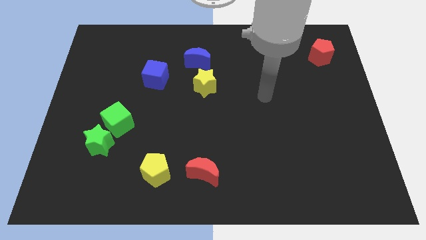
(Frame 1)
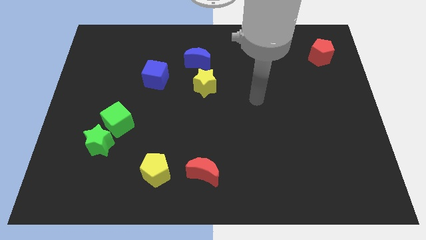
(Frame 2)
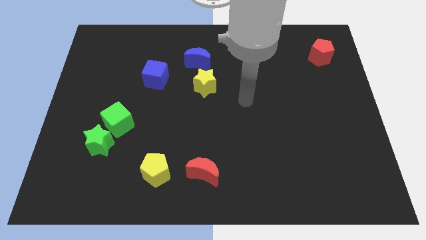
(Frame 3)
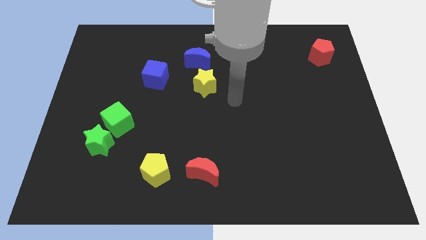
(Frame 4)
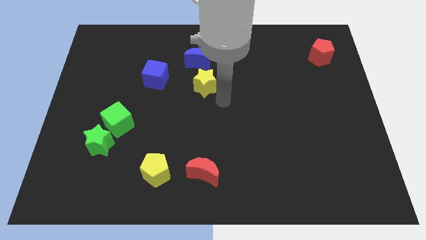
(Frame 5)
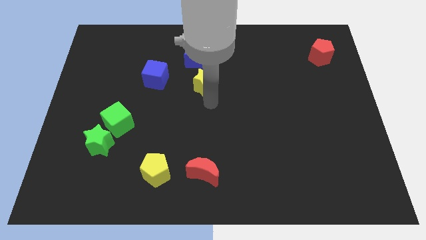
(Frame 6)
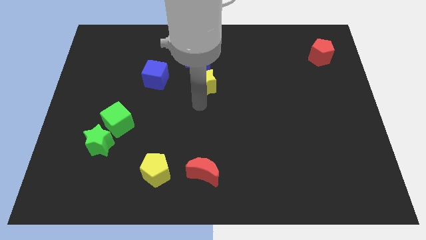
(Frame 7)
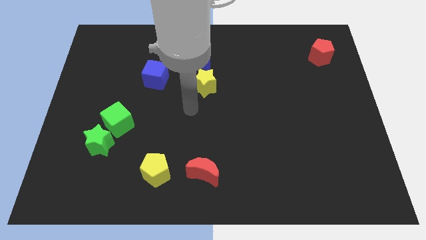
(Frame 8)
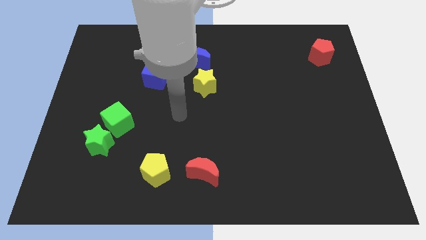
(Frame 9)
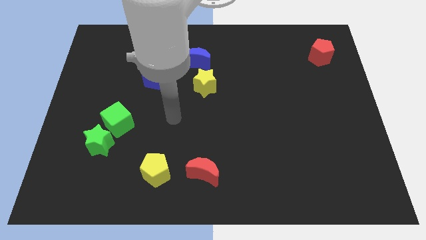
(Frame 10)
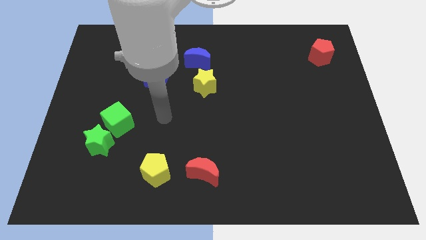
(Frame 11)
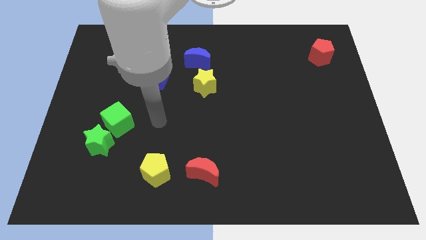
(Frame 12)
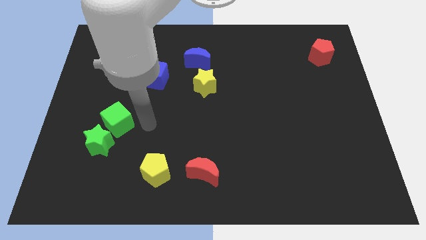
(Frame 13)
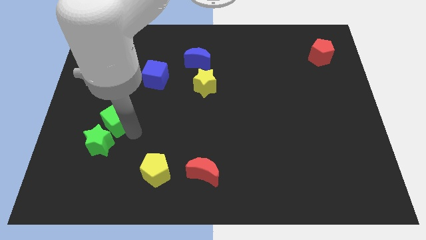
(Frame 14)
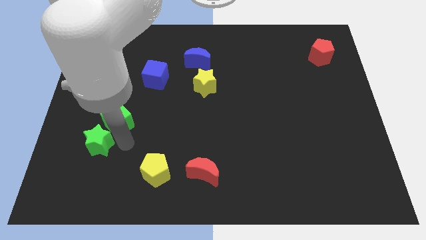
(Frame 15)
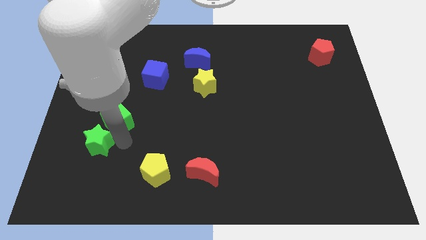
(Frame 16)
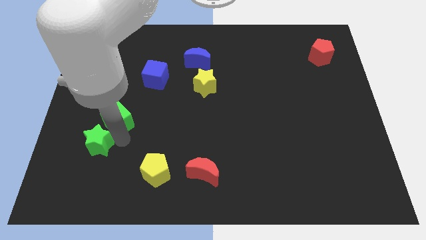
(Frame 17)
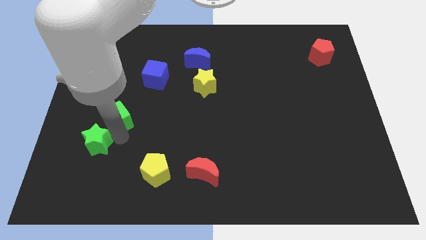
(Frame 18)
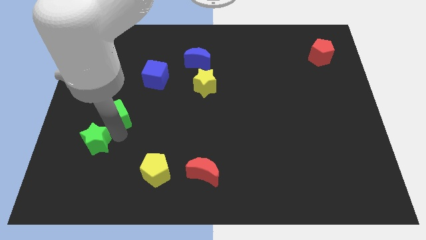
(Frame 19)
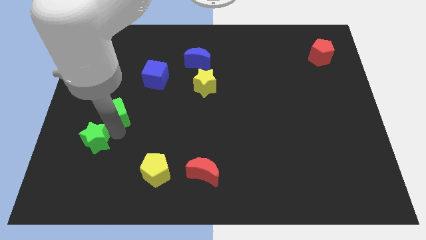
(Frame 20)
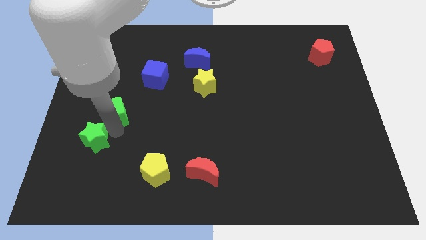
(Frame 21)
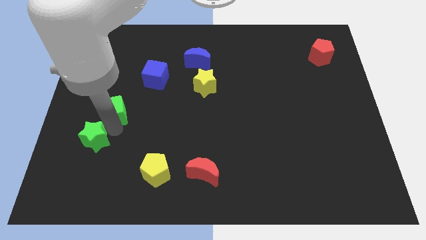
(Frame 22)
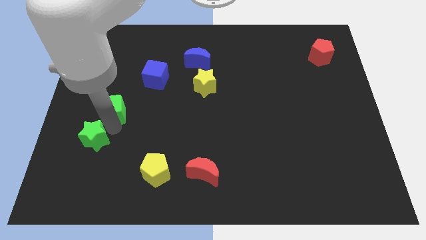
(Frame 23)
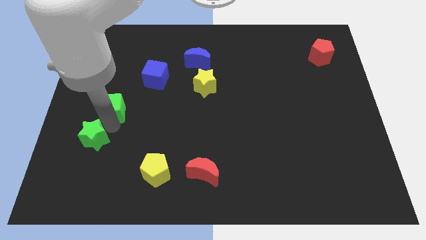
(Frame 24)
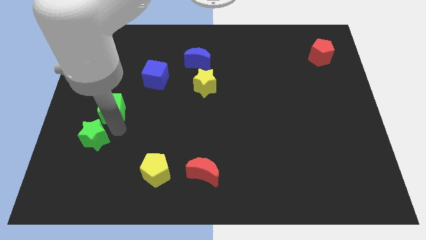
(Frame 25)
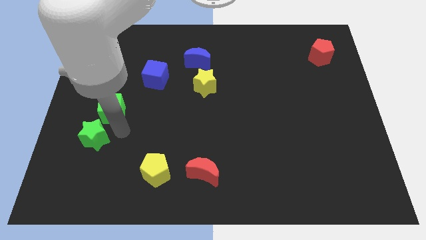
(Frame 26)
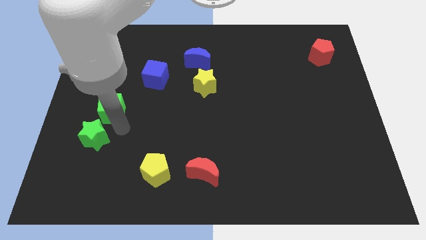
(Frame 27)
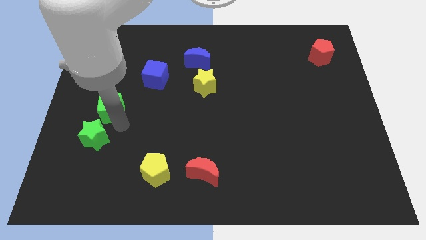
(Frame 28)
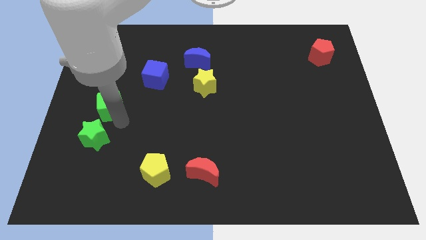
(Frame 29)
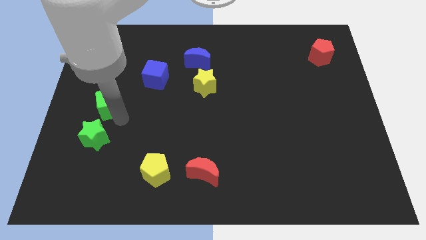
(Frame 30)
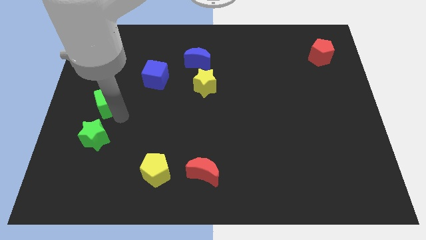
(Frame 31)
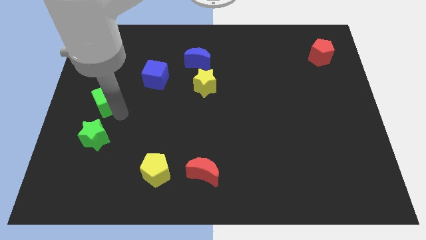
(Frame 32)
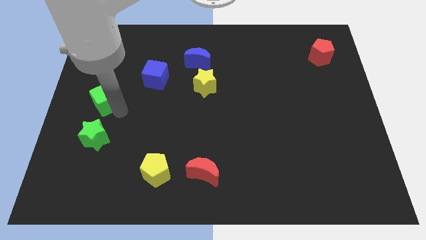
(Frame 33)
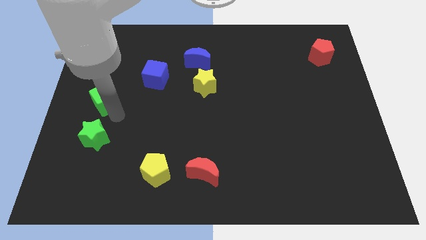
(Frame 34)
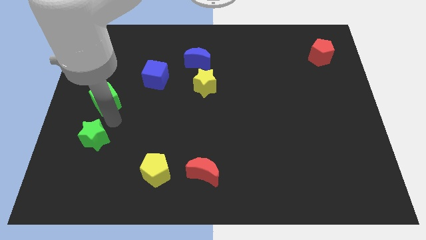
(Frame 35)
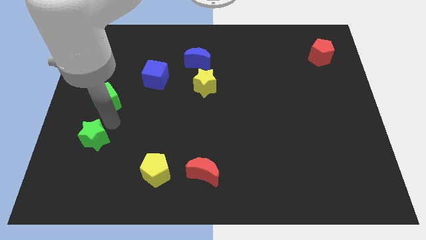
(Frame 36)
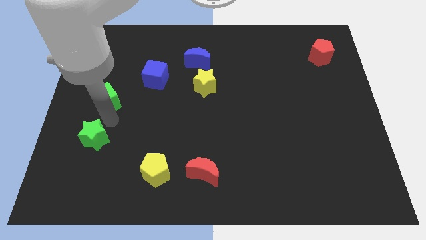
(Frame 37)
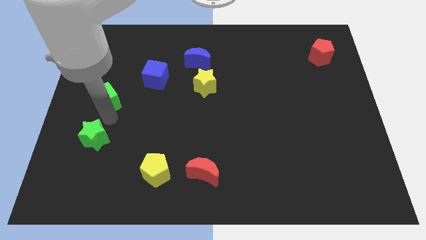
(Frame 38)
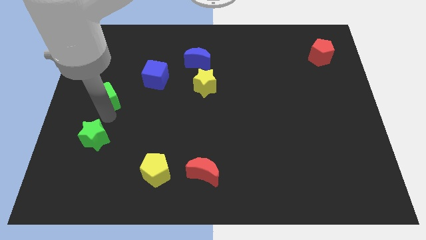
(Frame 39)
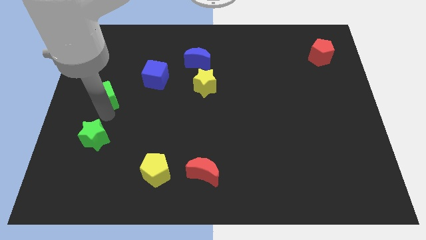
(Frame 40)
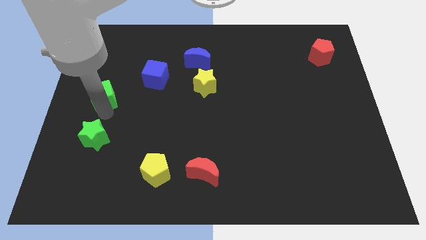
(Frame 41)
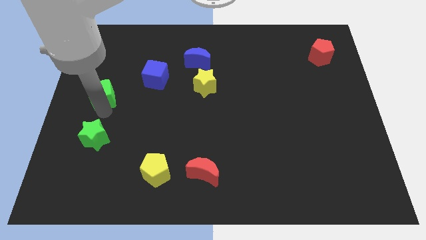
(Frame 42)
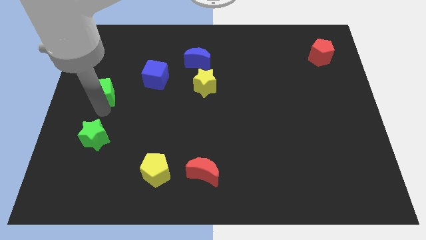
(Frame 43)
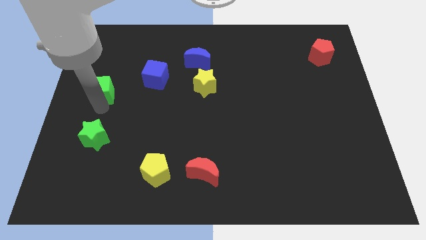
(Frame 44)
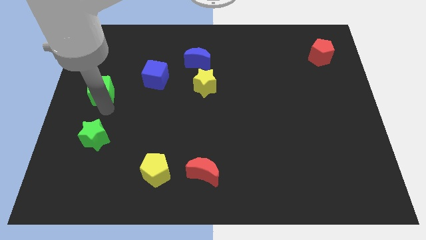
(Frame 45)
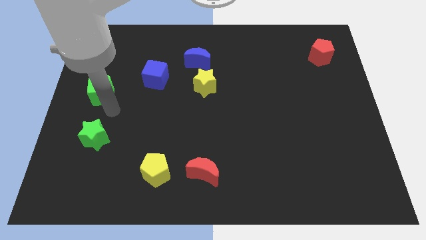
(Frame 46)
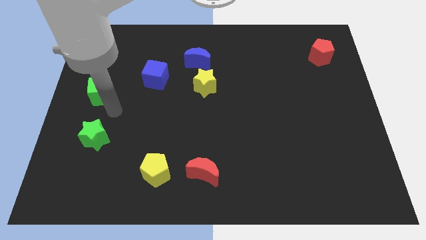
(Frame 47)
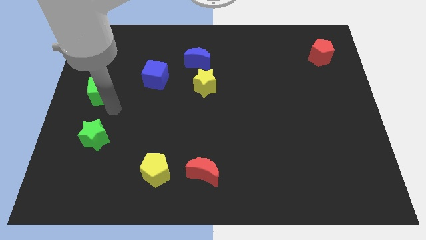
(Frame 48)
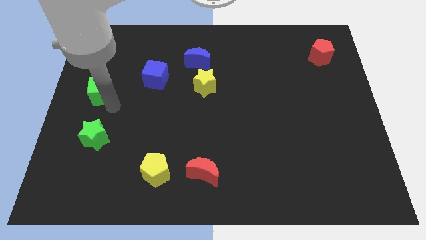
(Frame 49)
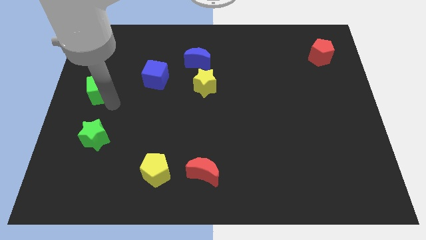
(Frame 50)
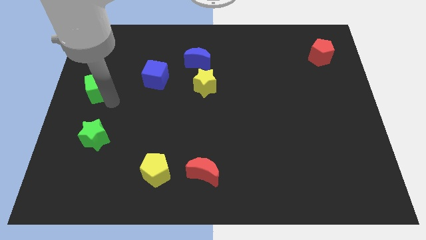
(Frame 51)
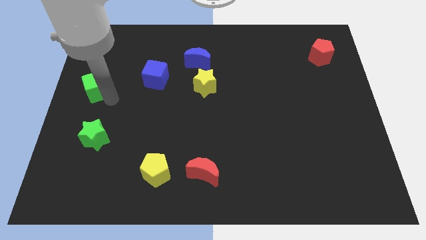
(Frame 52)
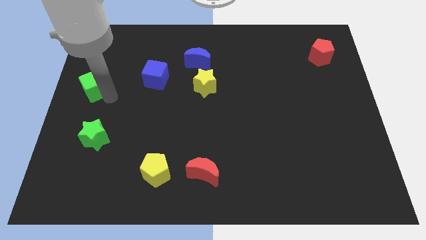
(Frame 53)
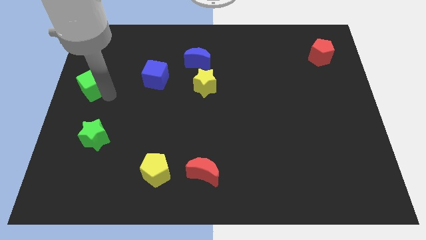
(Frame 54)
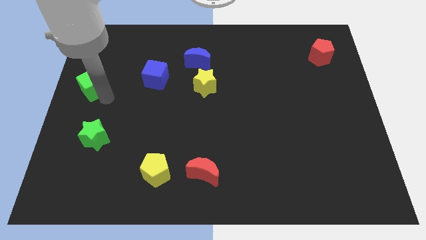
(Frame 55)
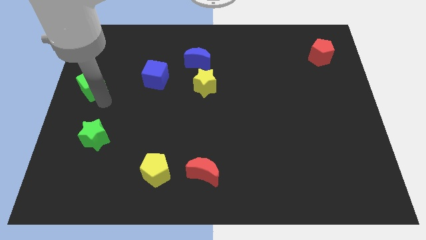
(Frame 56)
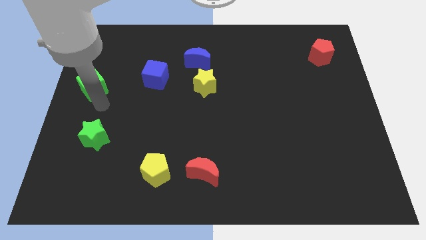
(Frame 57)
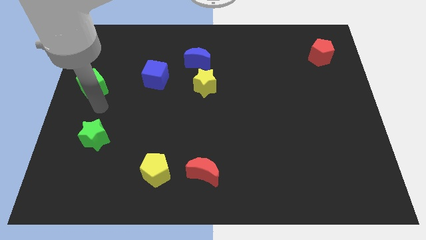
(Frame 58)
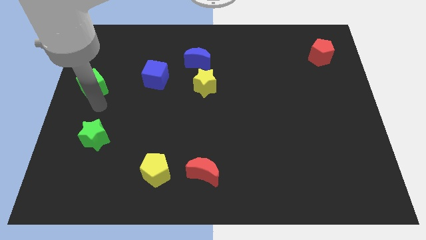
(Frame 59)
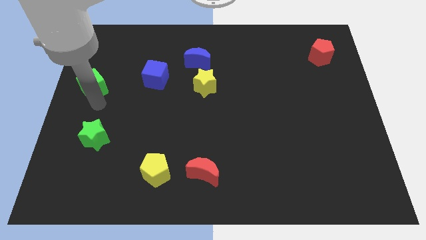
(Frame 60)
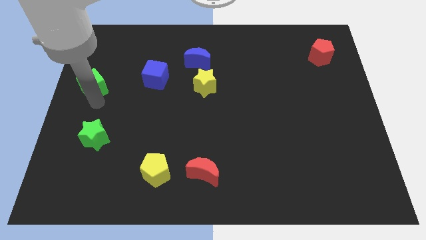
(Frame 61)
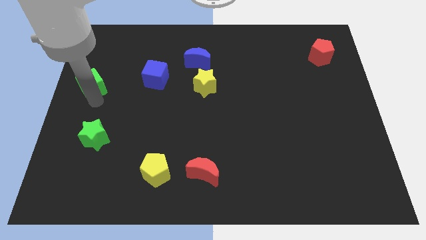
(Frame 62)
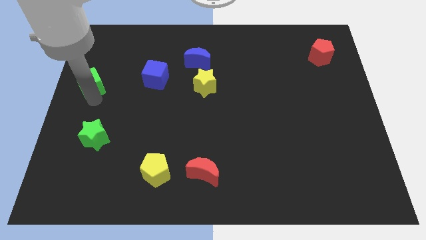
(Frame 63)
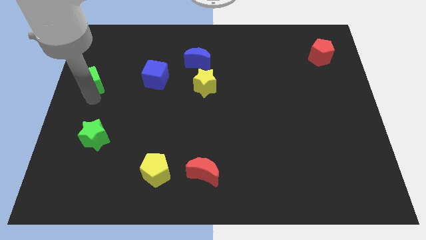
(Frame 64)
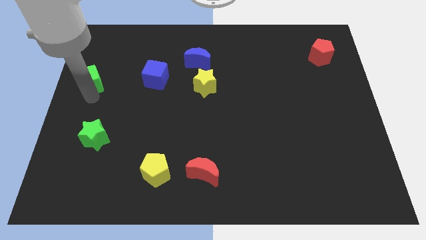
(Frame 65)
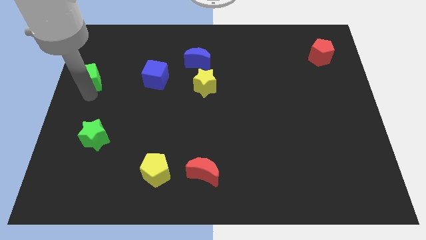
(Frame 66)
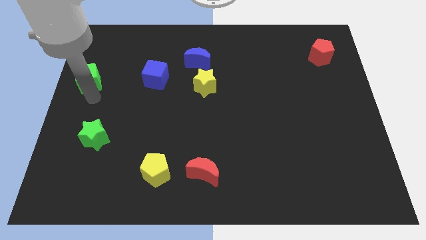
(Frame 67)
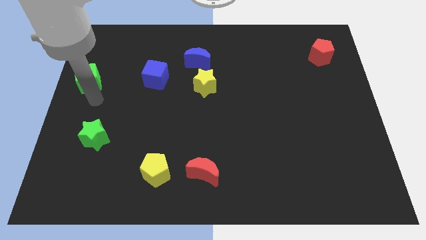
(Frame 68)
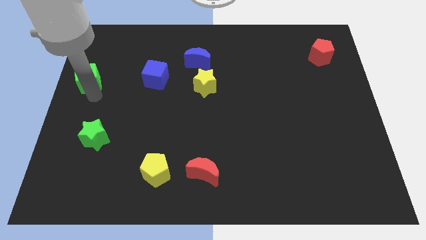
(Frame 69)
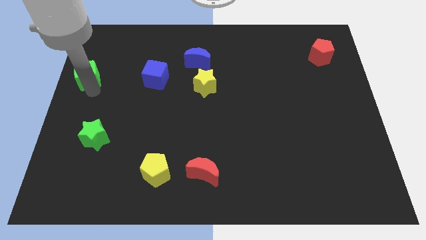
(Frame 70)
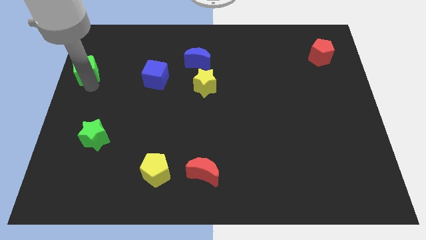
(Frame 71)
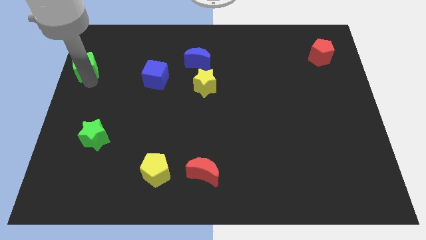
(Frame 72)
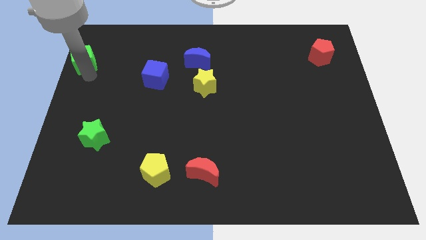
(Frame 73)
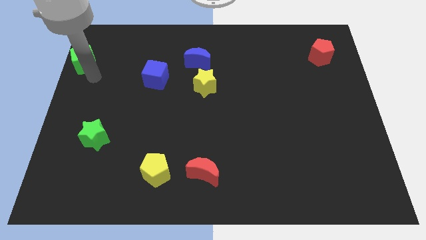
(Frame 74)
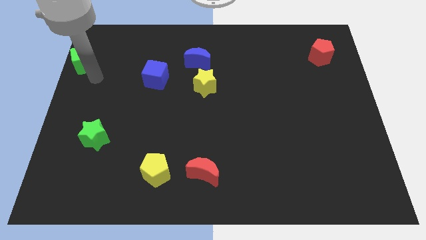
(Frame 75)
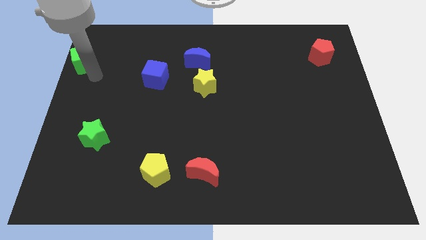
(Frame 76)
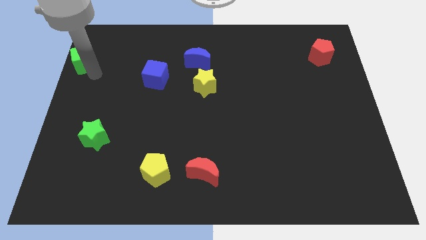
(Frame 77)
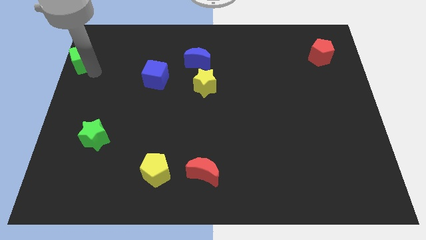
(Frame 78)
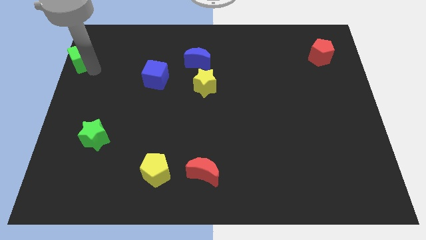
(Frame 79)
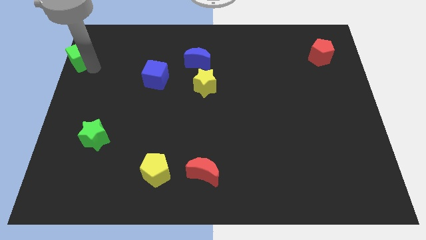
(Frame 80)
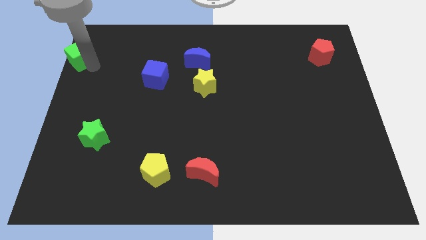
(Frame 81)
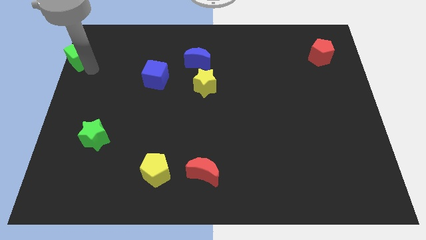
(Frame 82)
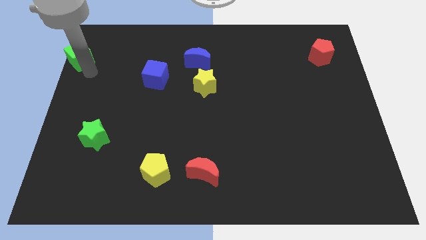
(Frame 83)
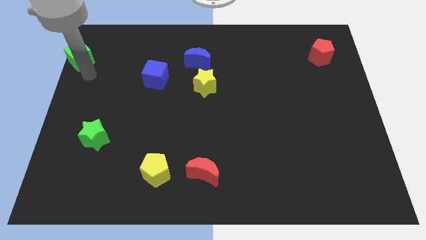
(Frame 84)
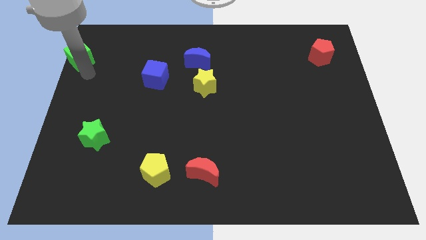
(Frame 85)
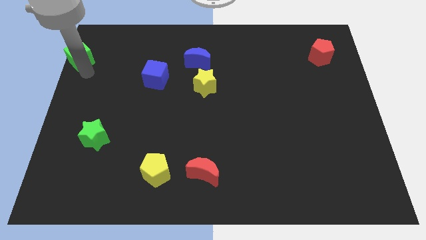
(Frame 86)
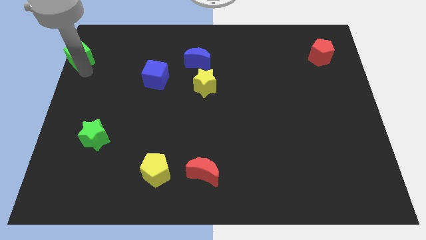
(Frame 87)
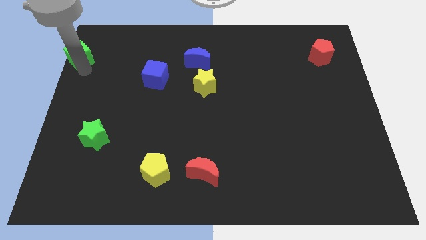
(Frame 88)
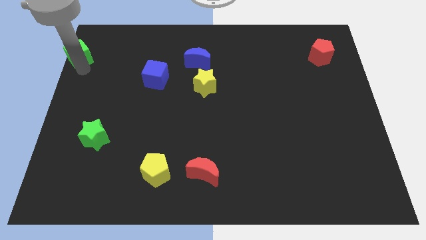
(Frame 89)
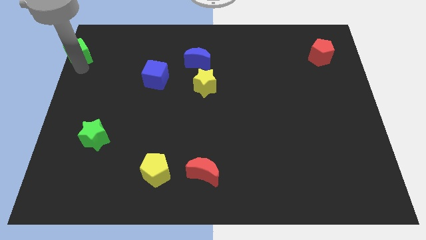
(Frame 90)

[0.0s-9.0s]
slide the green cube to the upper left corner
